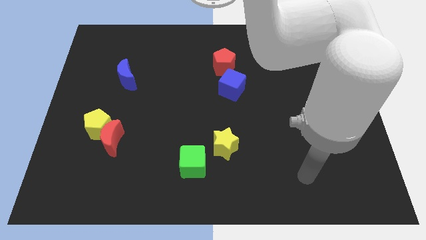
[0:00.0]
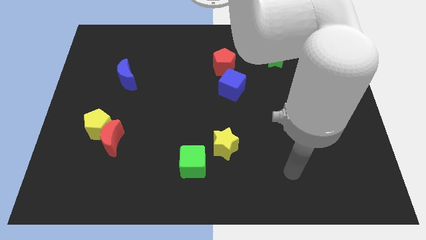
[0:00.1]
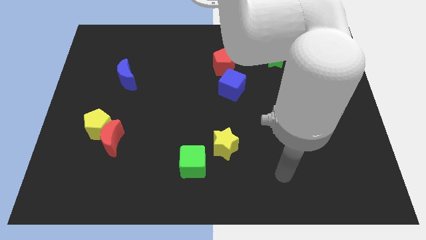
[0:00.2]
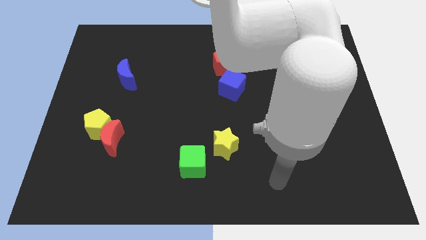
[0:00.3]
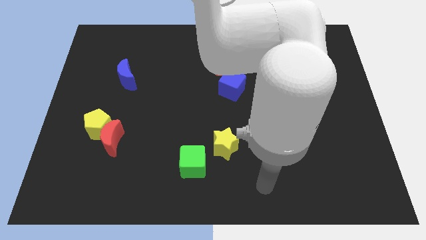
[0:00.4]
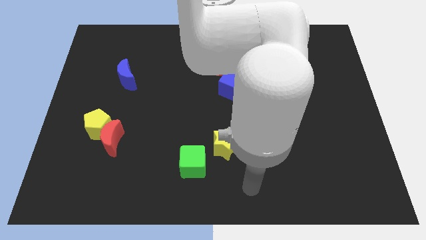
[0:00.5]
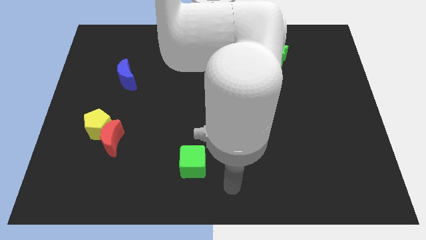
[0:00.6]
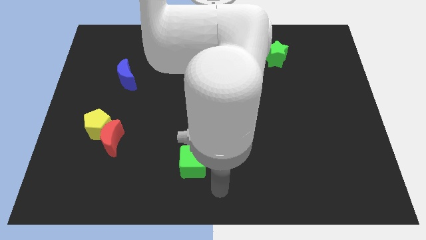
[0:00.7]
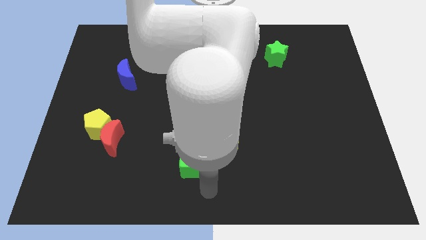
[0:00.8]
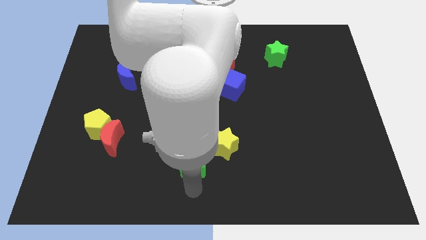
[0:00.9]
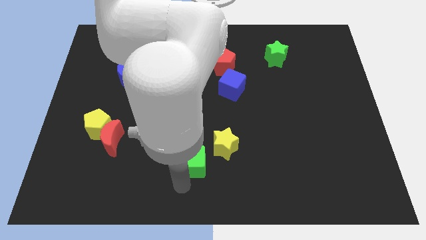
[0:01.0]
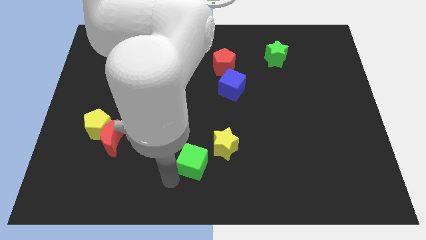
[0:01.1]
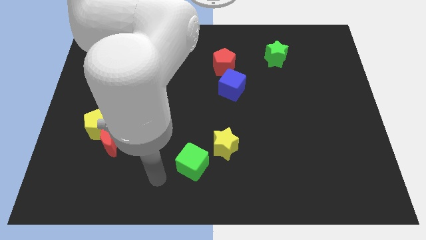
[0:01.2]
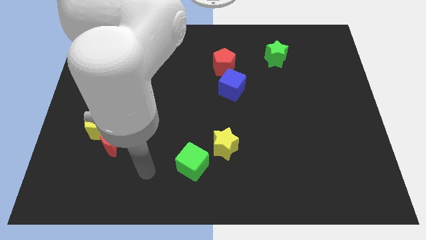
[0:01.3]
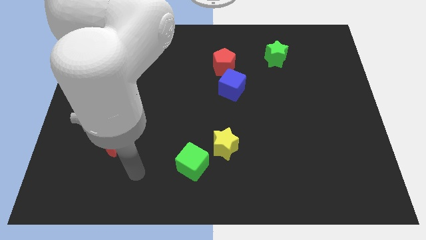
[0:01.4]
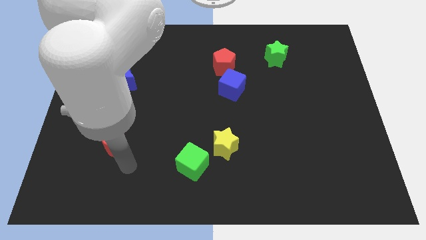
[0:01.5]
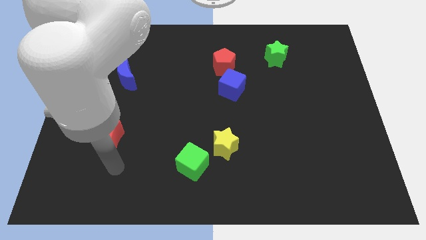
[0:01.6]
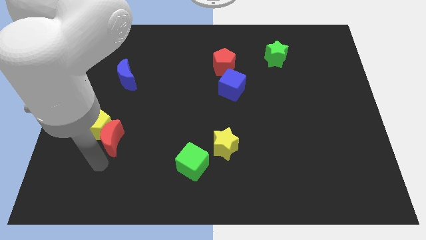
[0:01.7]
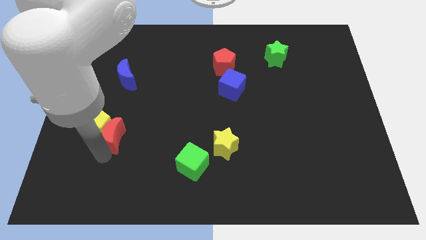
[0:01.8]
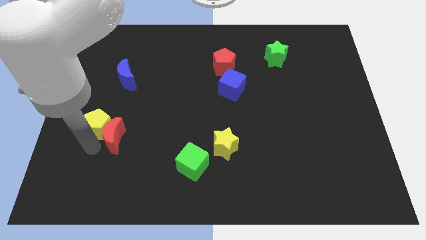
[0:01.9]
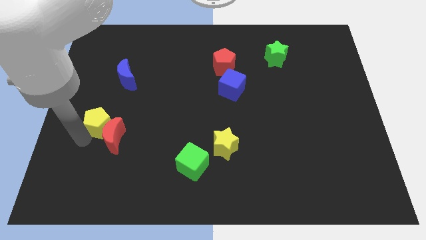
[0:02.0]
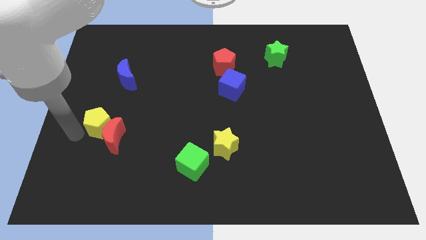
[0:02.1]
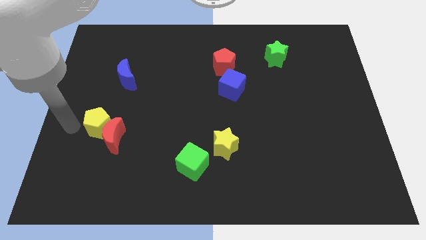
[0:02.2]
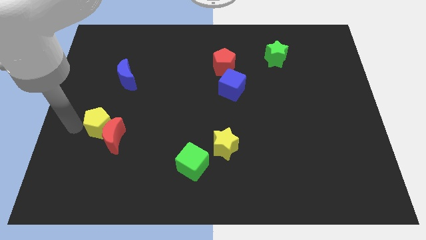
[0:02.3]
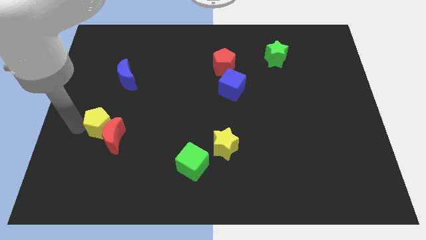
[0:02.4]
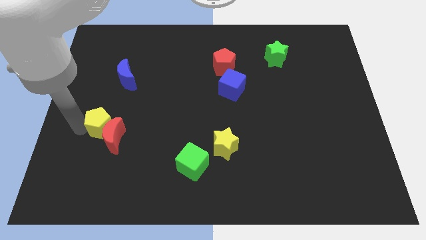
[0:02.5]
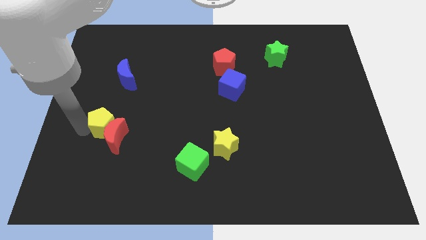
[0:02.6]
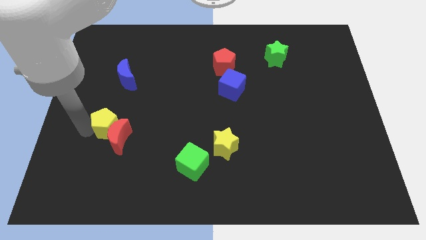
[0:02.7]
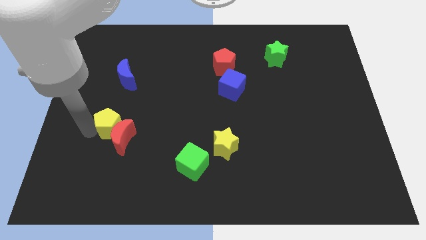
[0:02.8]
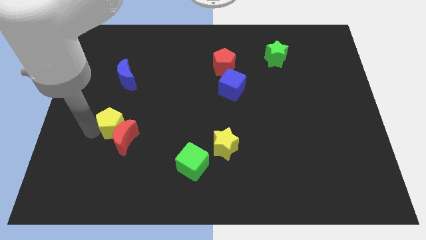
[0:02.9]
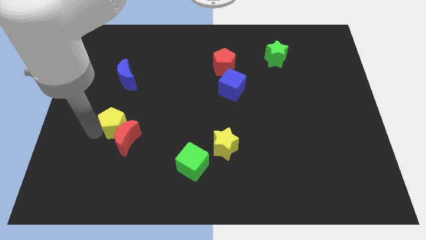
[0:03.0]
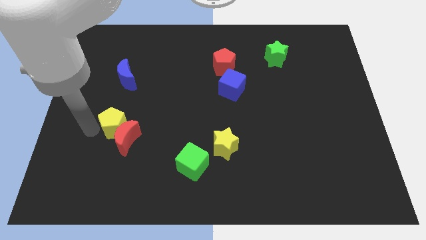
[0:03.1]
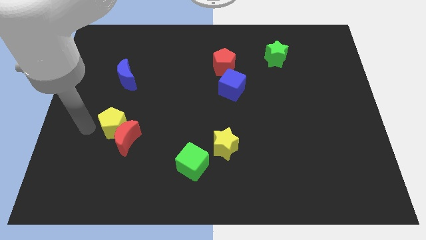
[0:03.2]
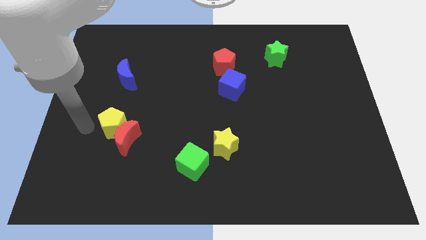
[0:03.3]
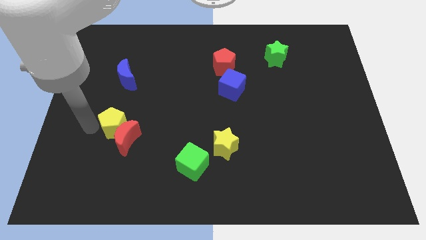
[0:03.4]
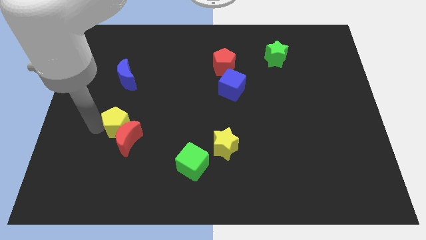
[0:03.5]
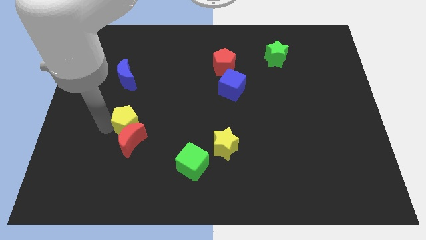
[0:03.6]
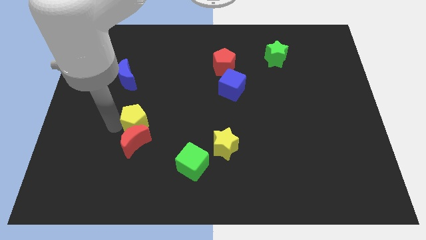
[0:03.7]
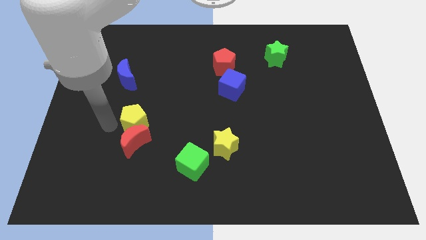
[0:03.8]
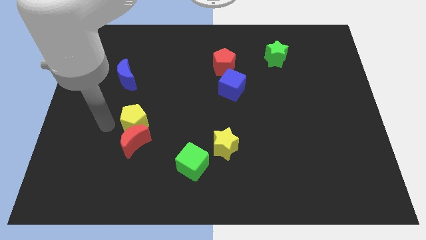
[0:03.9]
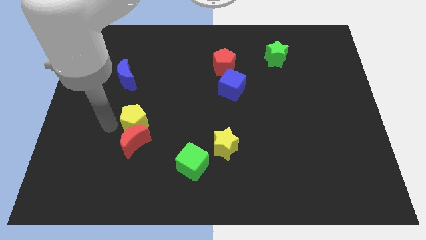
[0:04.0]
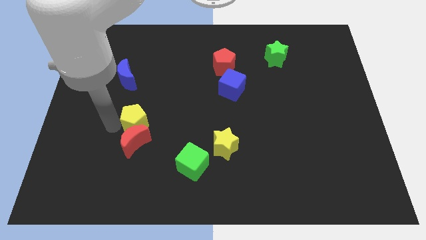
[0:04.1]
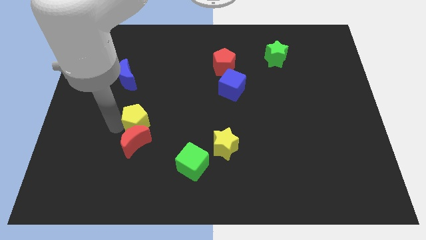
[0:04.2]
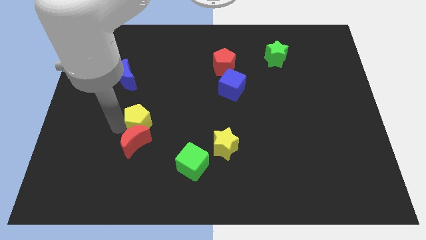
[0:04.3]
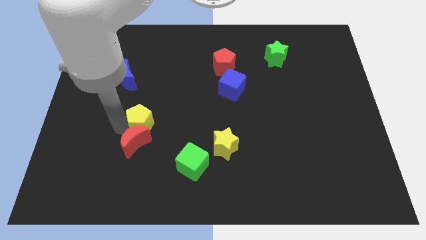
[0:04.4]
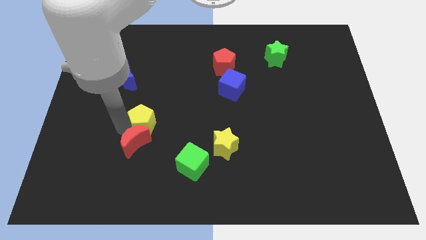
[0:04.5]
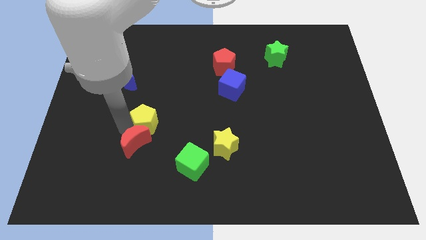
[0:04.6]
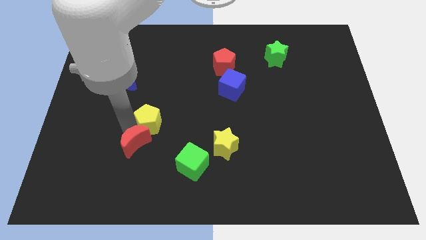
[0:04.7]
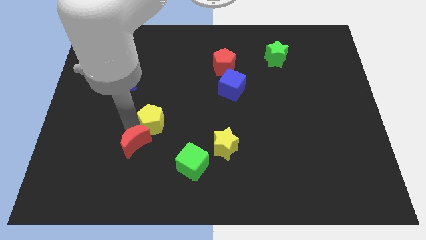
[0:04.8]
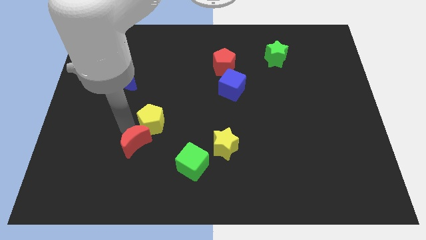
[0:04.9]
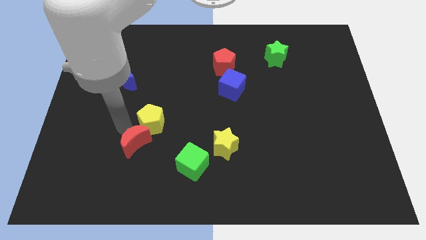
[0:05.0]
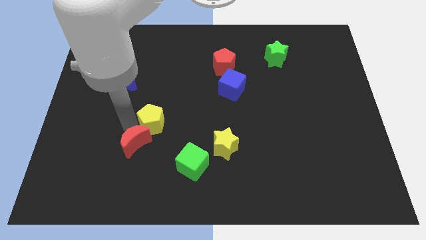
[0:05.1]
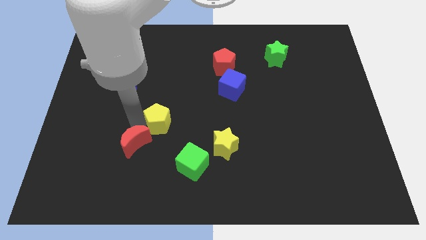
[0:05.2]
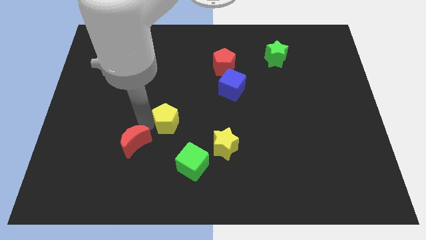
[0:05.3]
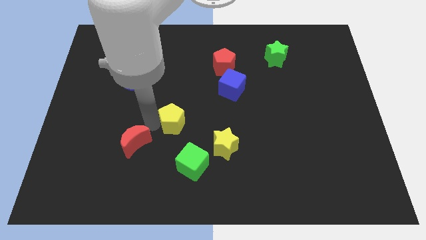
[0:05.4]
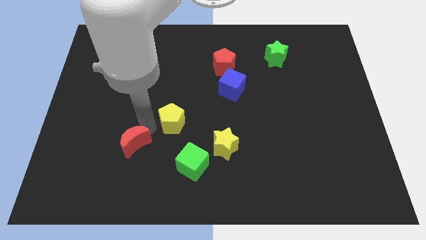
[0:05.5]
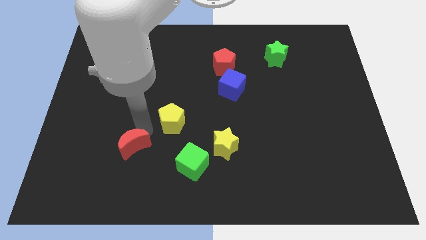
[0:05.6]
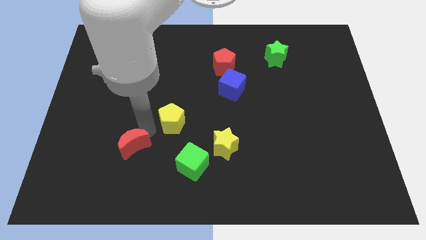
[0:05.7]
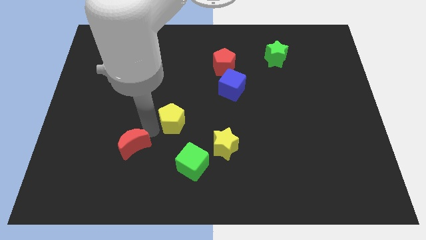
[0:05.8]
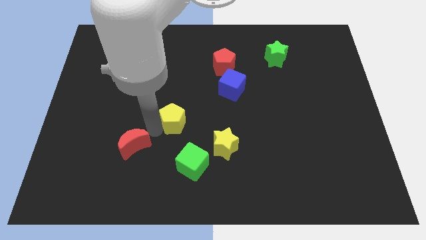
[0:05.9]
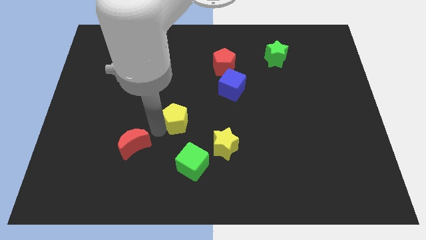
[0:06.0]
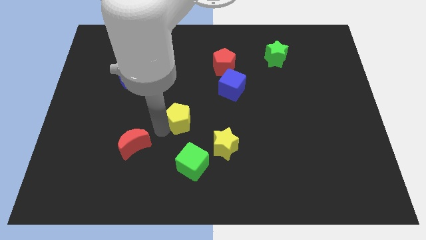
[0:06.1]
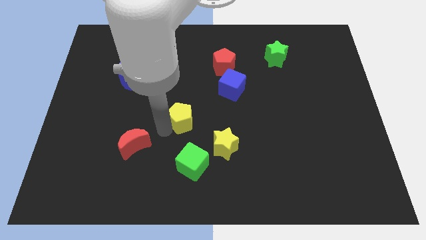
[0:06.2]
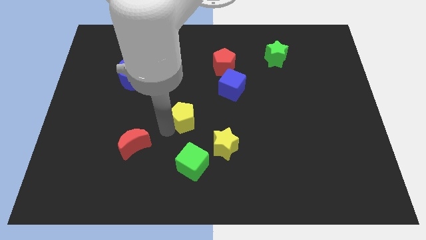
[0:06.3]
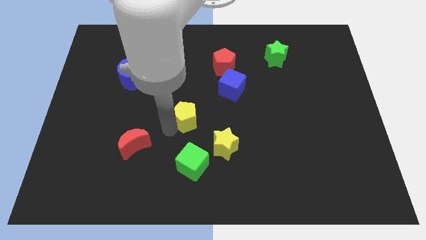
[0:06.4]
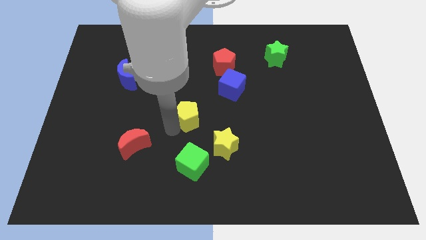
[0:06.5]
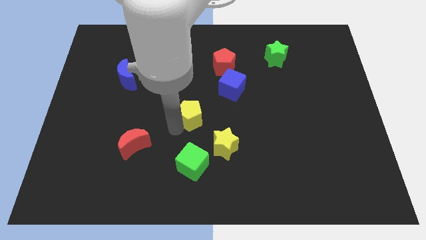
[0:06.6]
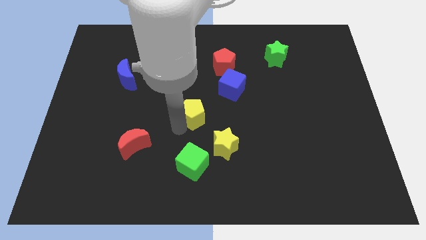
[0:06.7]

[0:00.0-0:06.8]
put the yellow pentagon diagonally down and to the left of the blue cube
